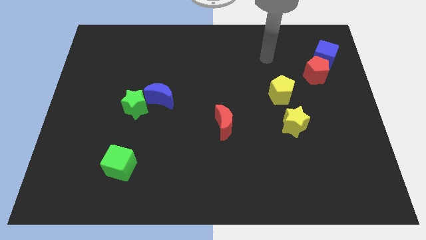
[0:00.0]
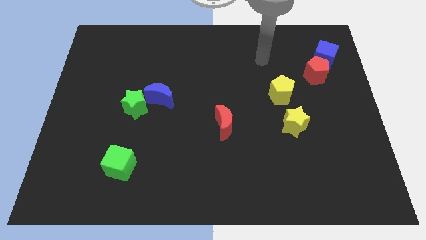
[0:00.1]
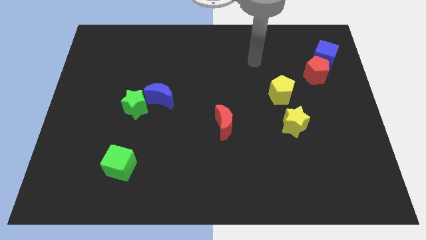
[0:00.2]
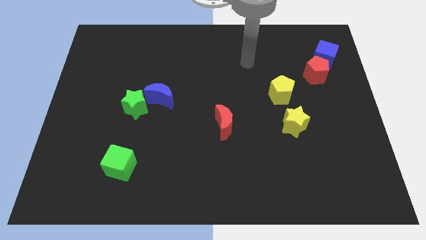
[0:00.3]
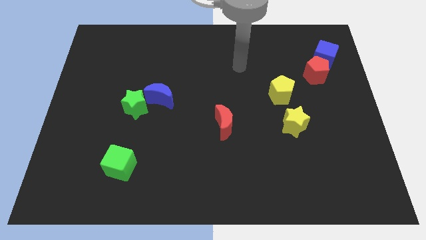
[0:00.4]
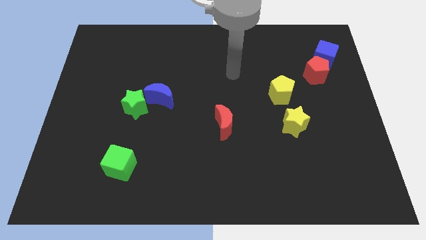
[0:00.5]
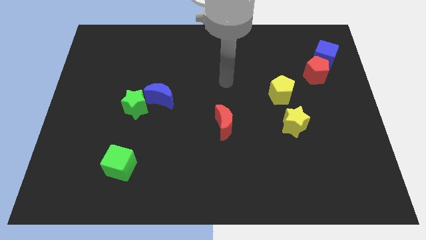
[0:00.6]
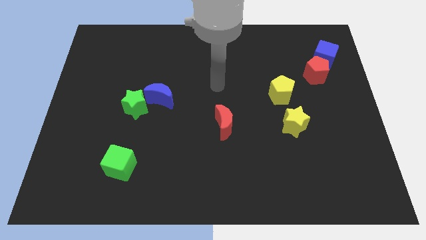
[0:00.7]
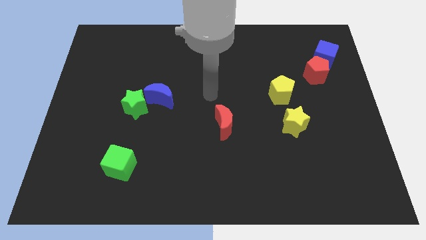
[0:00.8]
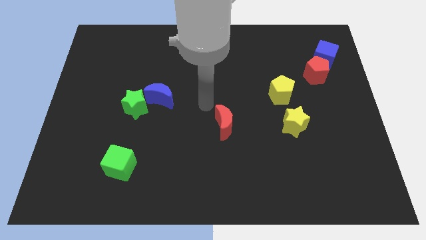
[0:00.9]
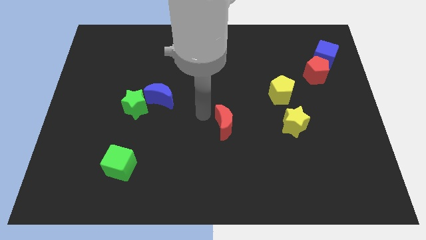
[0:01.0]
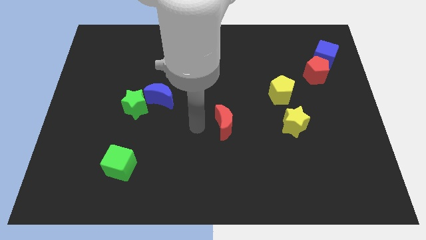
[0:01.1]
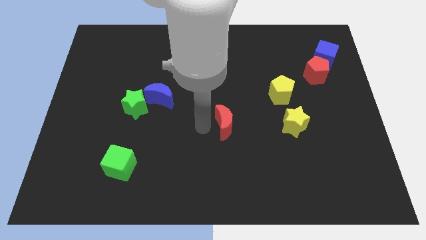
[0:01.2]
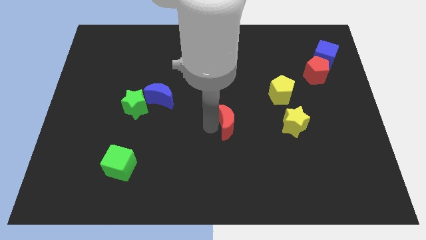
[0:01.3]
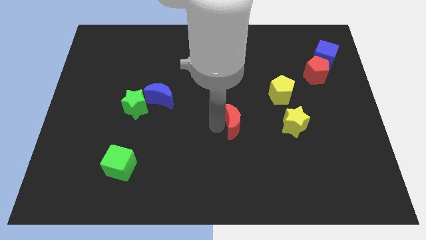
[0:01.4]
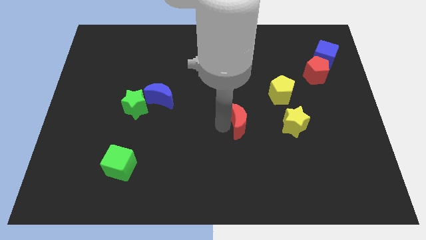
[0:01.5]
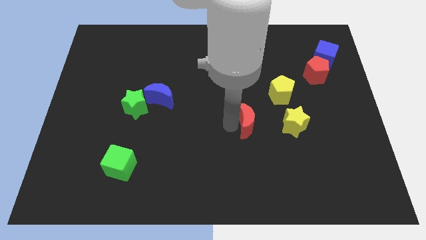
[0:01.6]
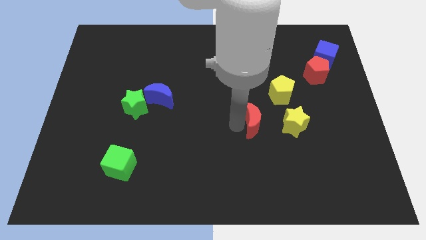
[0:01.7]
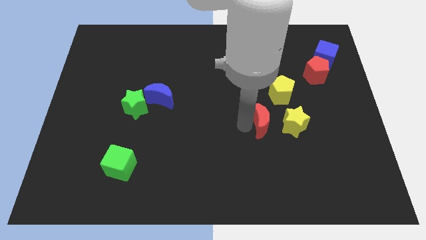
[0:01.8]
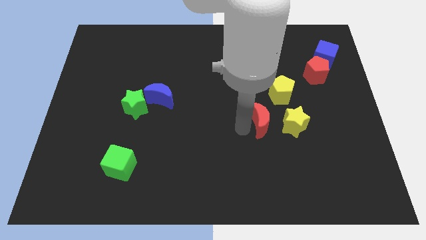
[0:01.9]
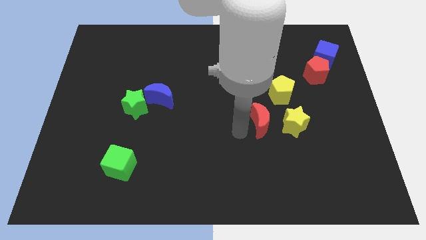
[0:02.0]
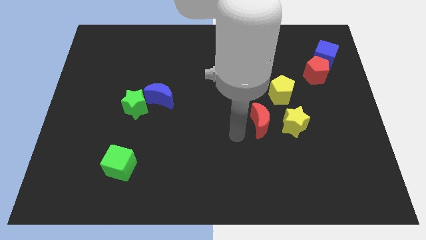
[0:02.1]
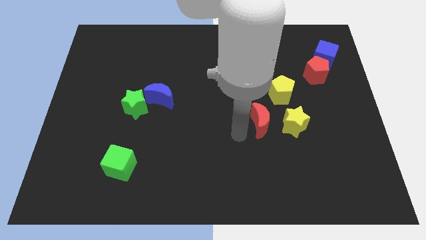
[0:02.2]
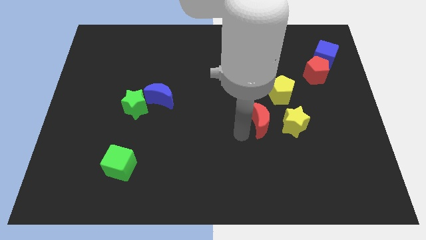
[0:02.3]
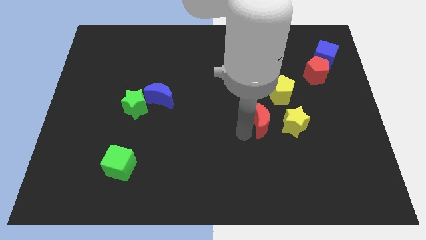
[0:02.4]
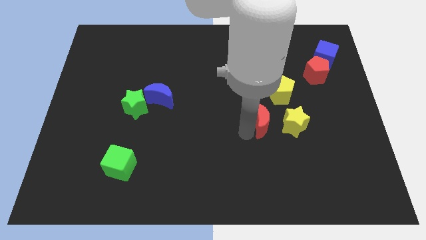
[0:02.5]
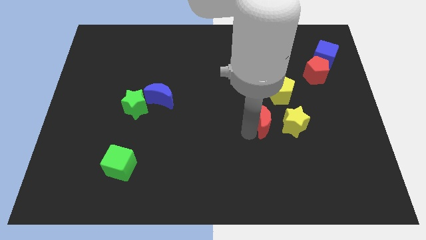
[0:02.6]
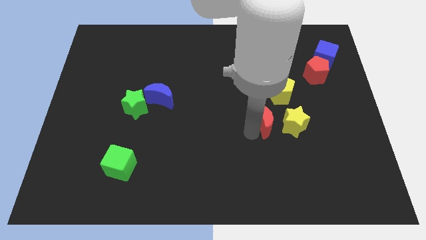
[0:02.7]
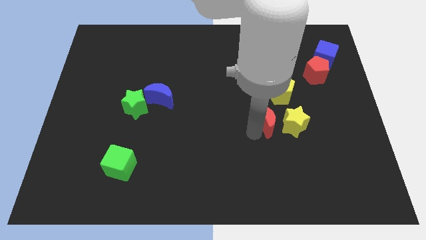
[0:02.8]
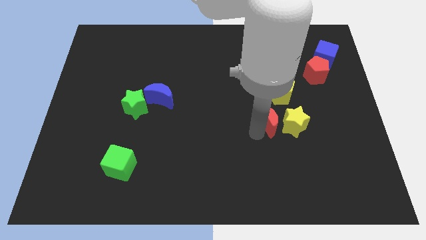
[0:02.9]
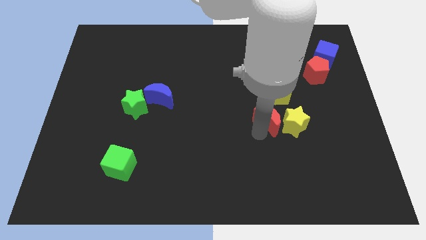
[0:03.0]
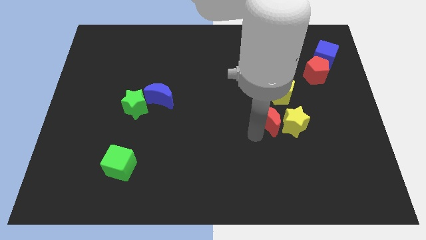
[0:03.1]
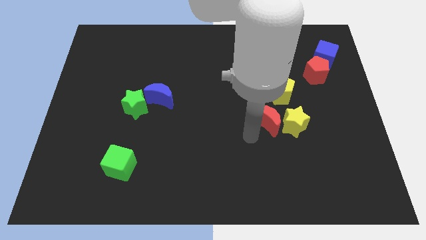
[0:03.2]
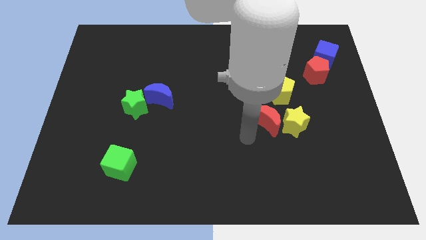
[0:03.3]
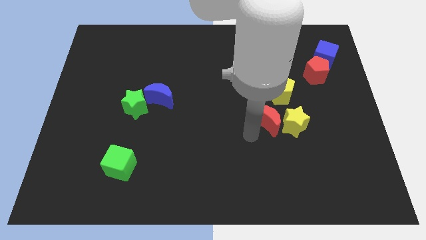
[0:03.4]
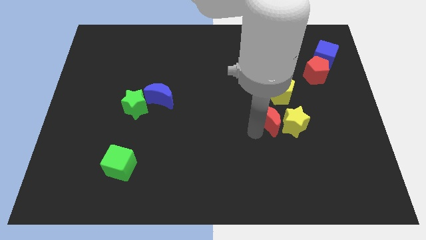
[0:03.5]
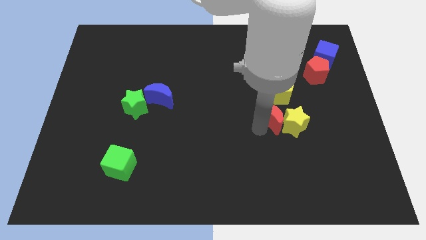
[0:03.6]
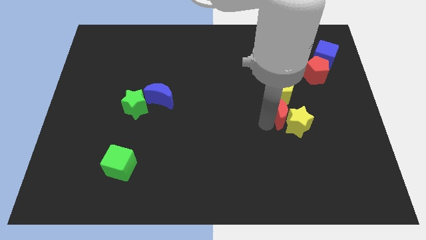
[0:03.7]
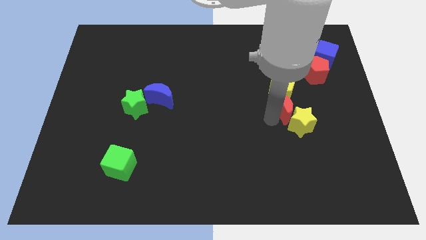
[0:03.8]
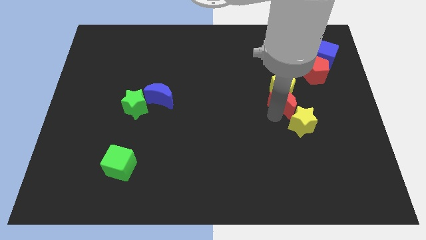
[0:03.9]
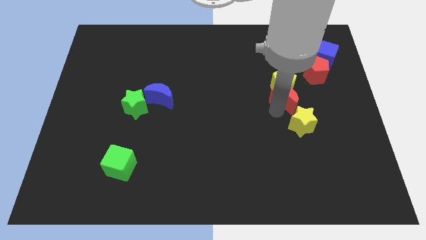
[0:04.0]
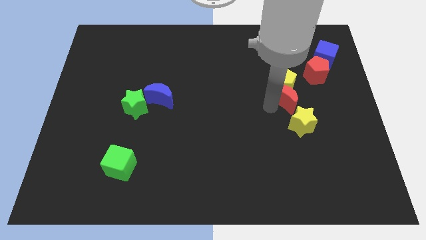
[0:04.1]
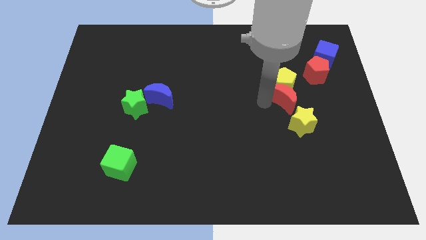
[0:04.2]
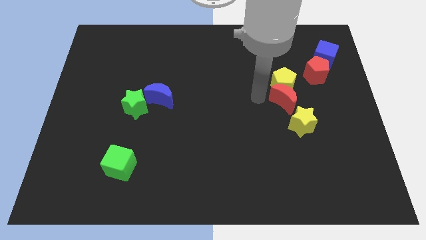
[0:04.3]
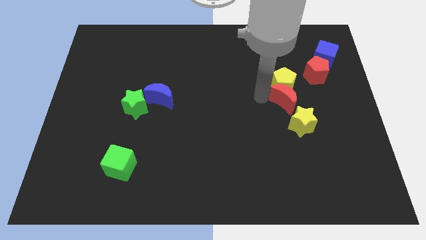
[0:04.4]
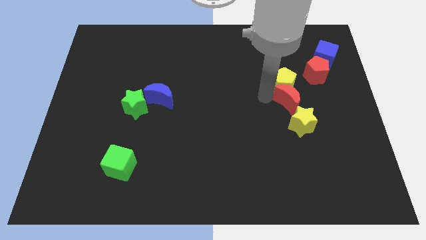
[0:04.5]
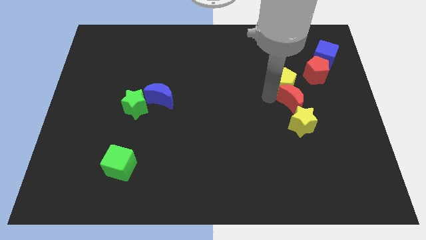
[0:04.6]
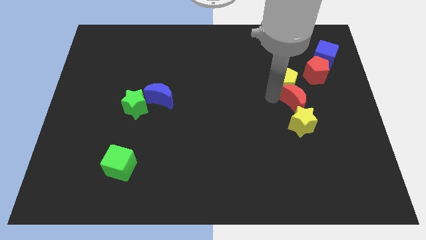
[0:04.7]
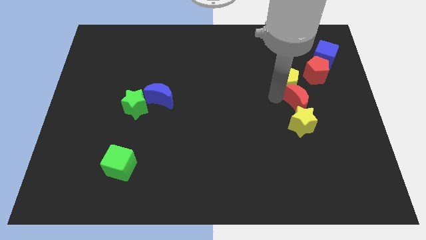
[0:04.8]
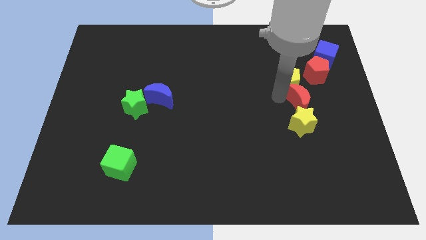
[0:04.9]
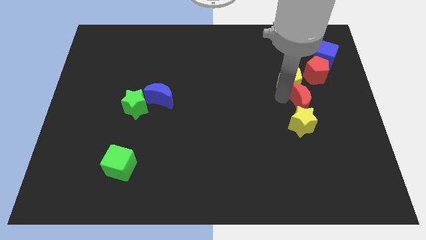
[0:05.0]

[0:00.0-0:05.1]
push the red moon to the bottom of the red pentagon

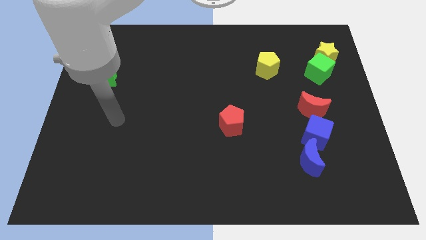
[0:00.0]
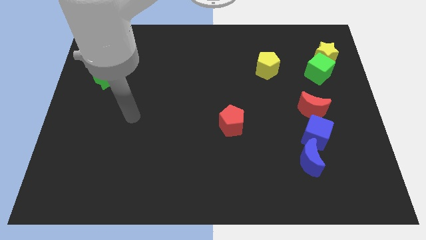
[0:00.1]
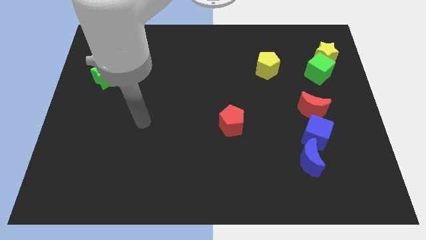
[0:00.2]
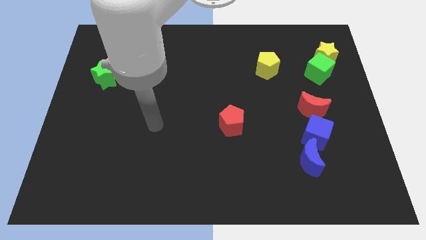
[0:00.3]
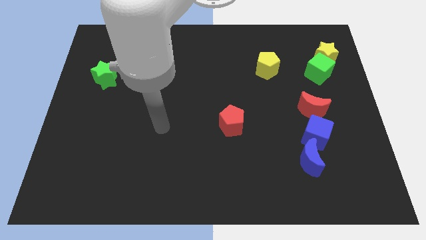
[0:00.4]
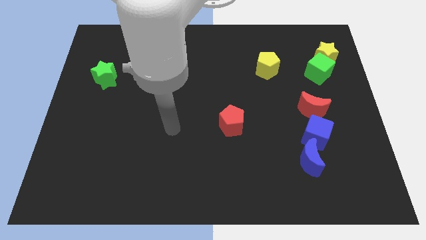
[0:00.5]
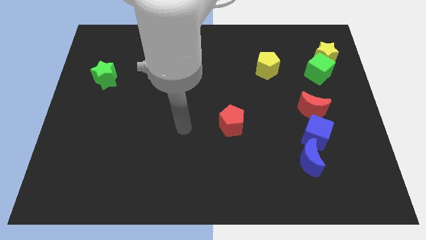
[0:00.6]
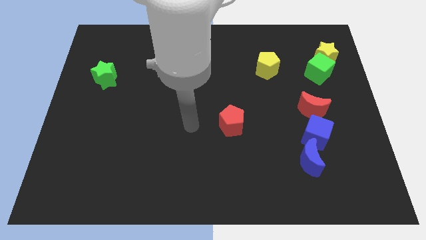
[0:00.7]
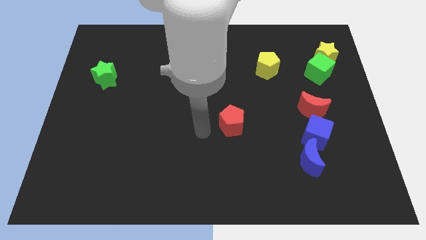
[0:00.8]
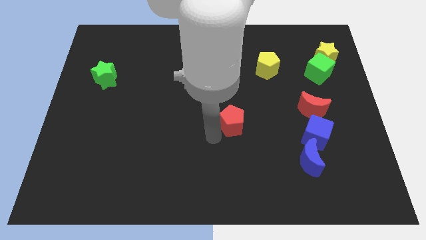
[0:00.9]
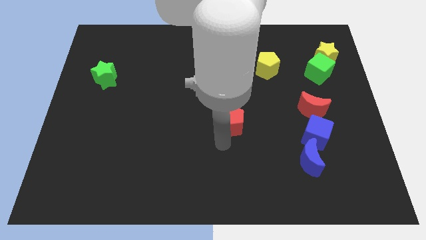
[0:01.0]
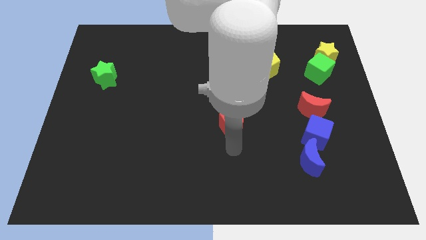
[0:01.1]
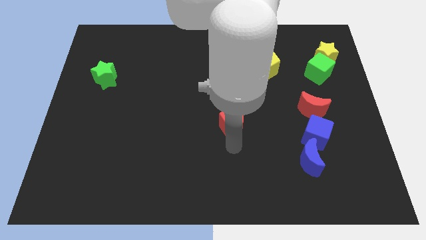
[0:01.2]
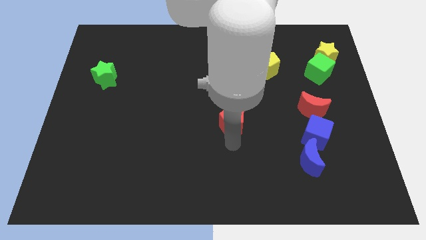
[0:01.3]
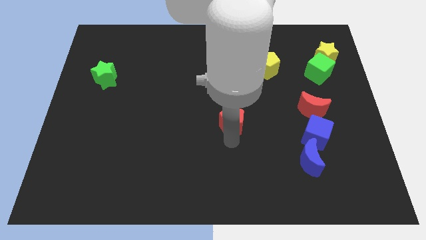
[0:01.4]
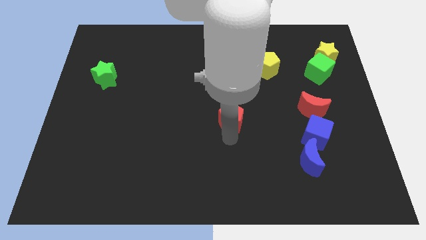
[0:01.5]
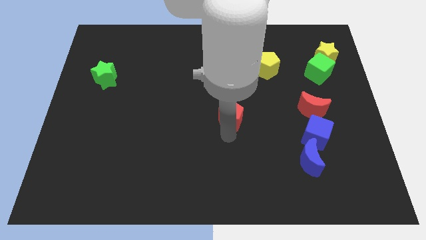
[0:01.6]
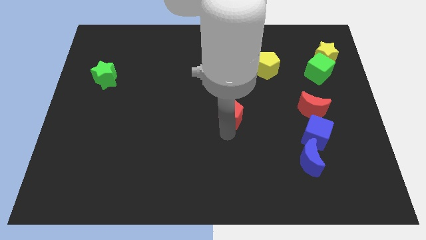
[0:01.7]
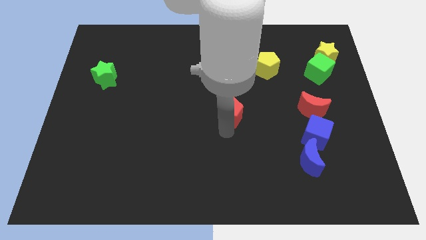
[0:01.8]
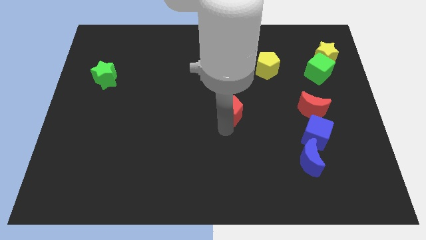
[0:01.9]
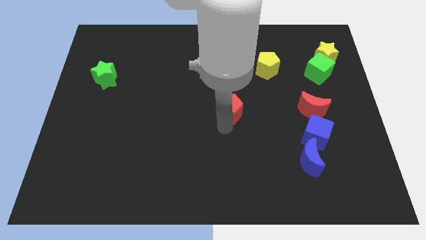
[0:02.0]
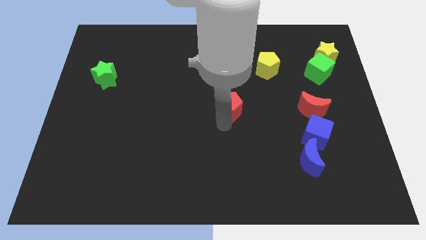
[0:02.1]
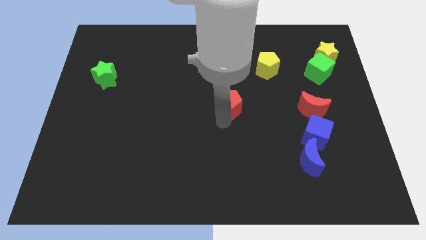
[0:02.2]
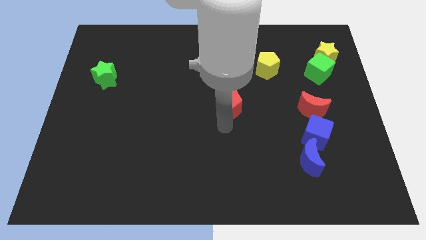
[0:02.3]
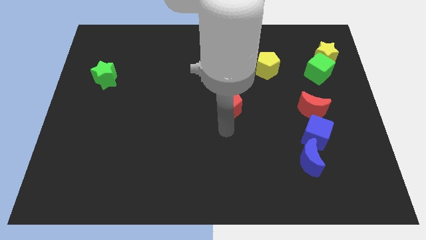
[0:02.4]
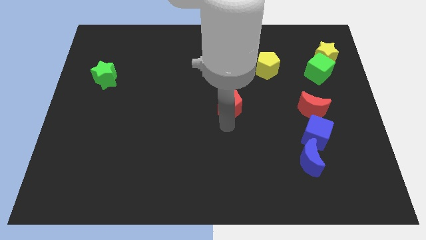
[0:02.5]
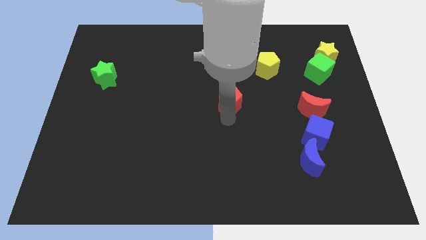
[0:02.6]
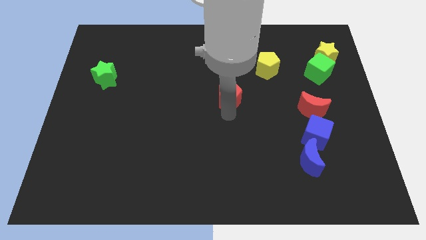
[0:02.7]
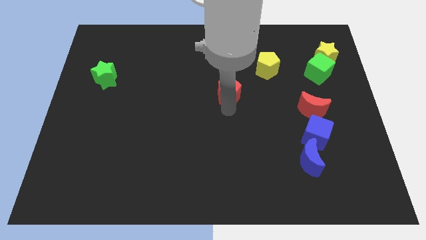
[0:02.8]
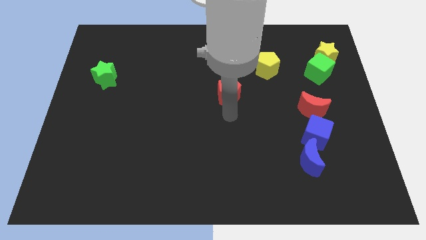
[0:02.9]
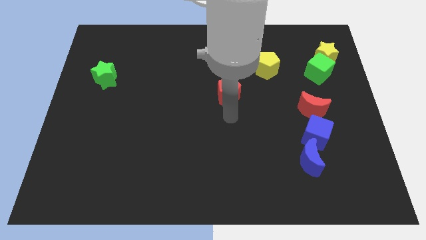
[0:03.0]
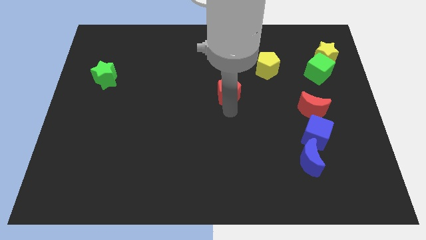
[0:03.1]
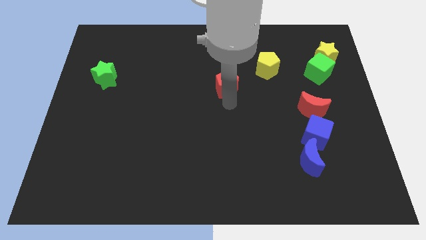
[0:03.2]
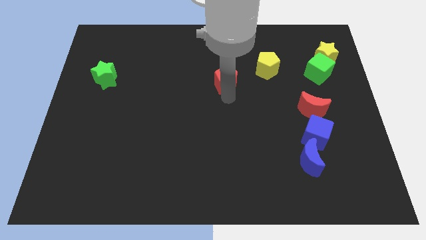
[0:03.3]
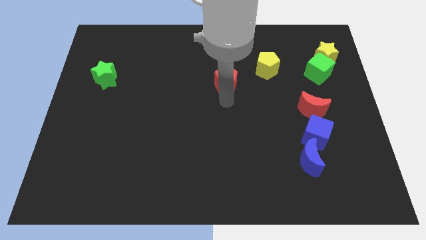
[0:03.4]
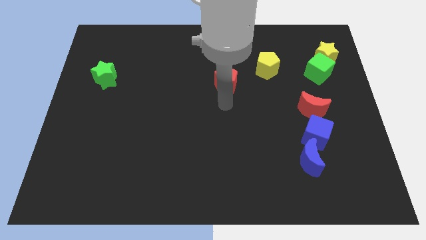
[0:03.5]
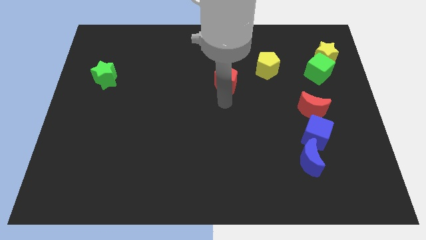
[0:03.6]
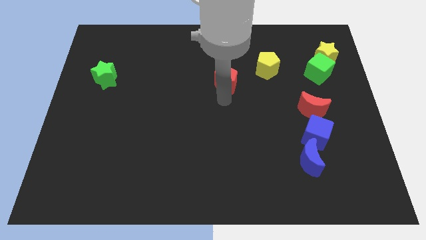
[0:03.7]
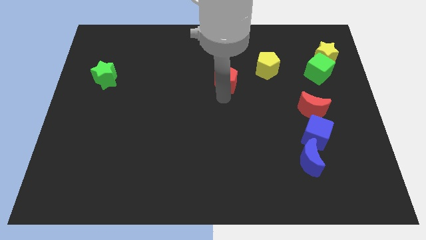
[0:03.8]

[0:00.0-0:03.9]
push the red pentagon left of the yellow pentagon
